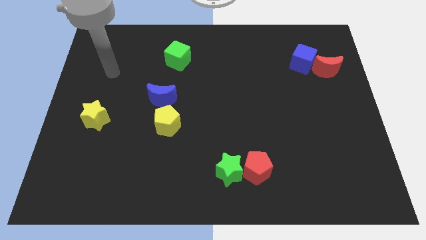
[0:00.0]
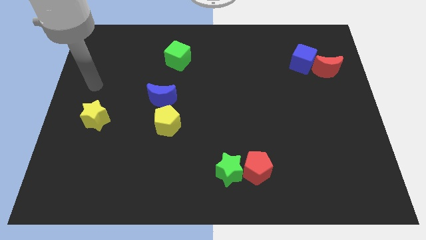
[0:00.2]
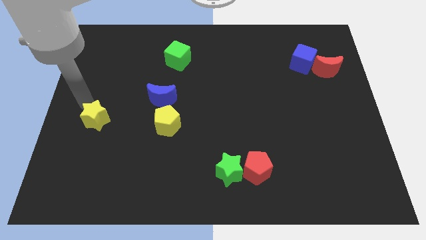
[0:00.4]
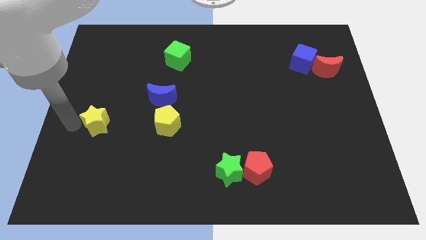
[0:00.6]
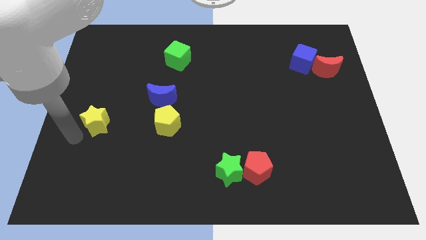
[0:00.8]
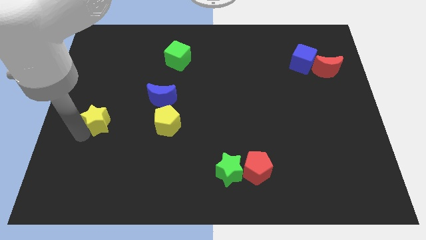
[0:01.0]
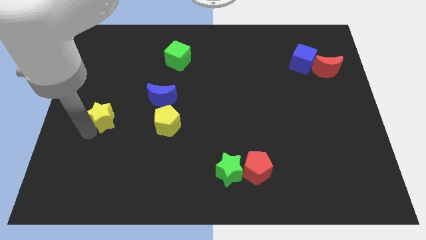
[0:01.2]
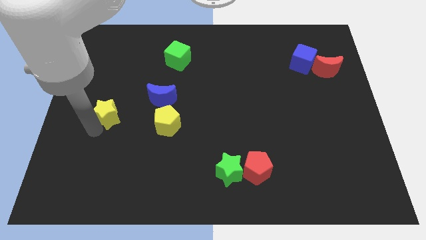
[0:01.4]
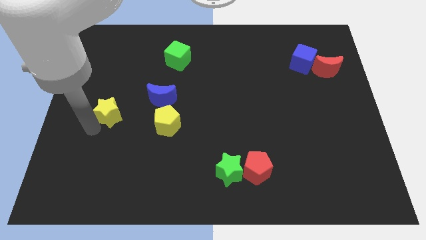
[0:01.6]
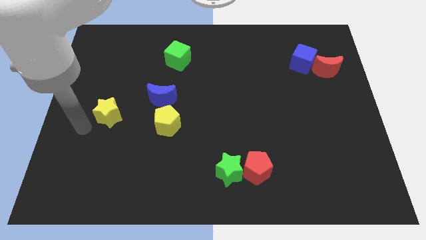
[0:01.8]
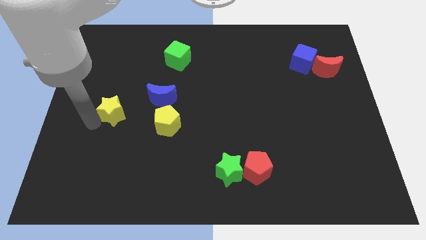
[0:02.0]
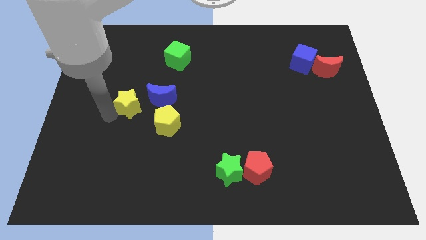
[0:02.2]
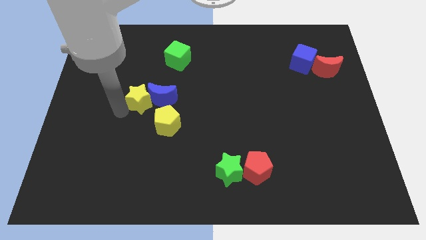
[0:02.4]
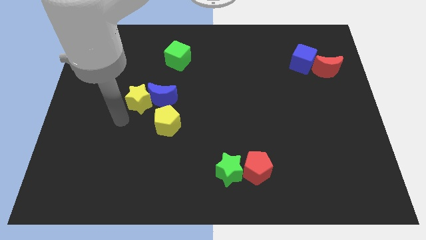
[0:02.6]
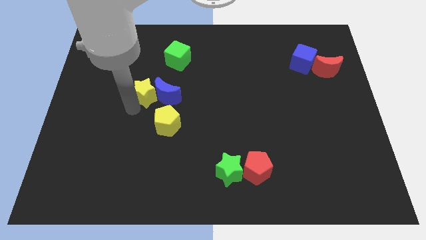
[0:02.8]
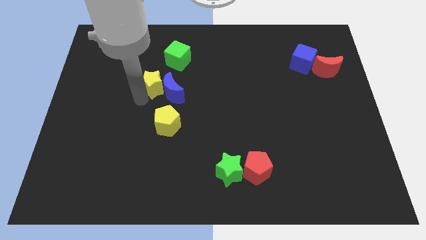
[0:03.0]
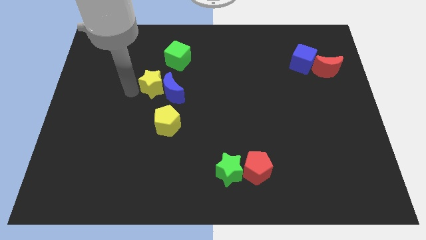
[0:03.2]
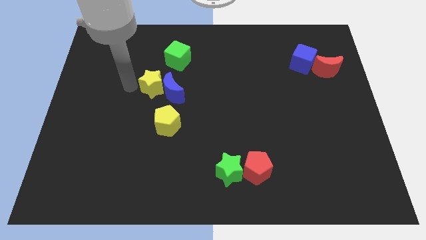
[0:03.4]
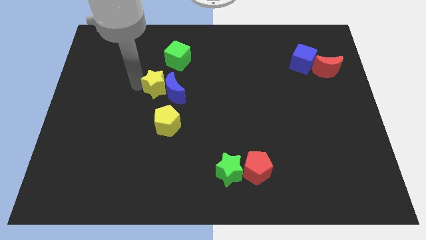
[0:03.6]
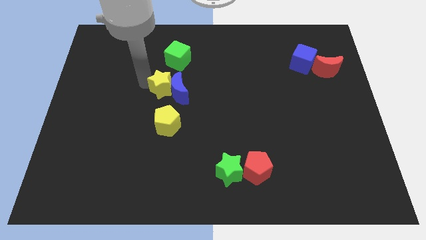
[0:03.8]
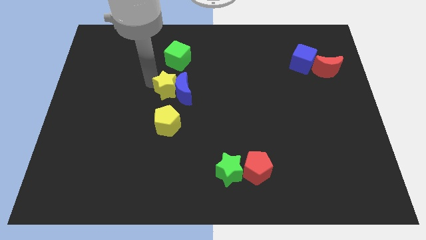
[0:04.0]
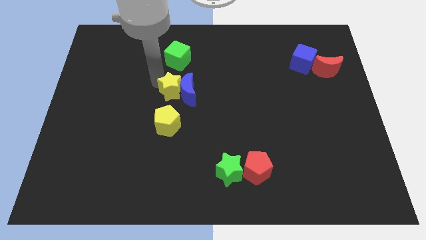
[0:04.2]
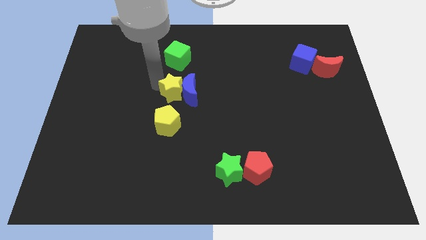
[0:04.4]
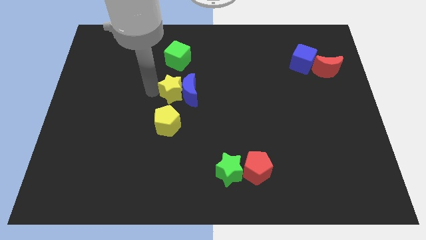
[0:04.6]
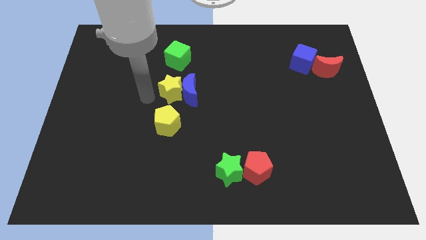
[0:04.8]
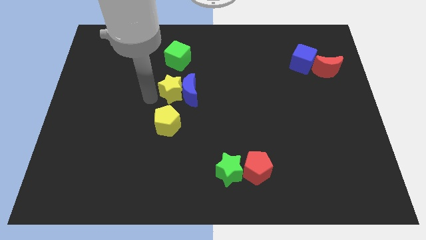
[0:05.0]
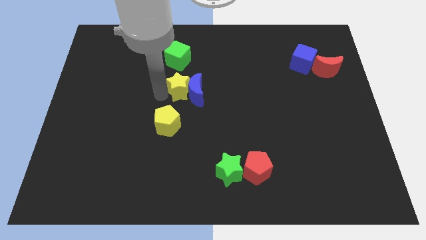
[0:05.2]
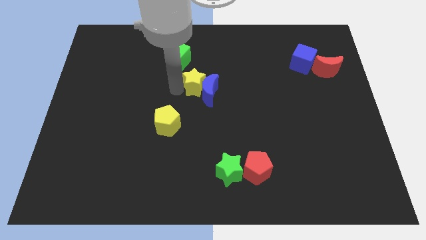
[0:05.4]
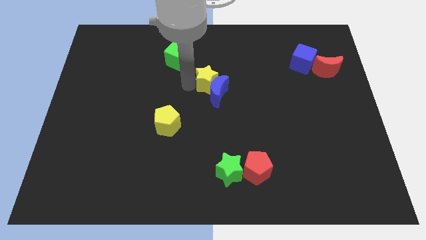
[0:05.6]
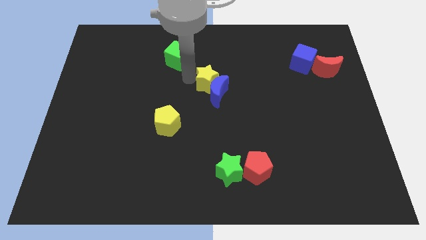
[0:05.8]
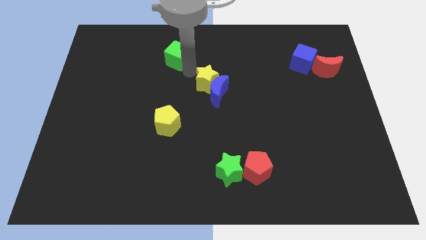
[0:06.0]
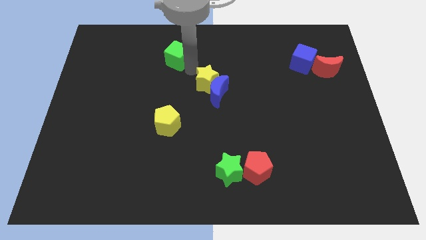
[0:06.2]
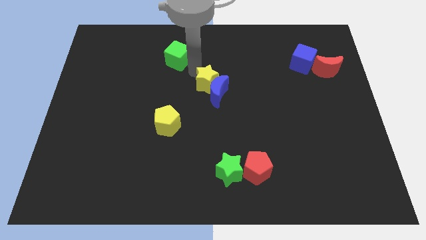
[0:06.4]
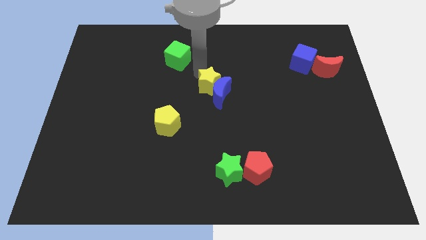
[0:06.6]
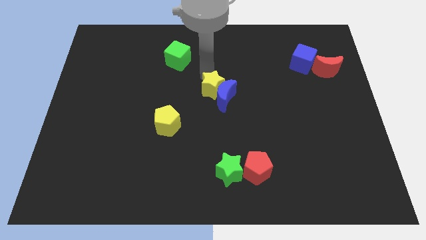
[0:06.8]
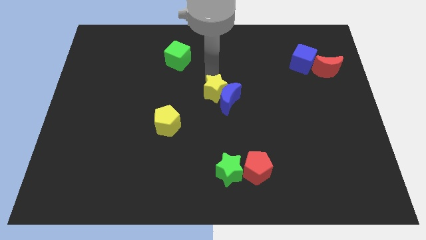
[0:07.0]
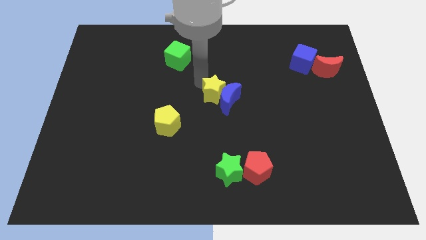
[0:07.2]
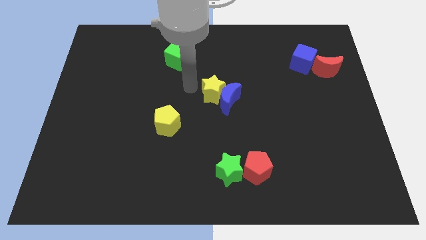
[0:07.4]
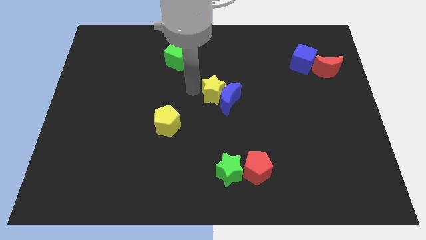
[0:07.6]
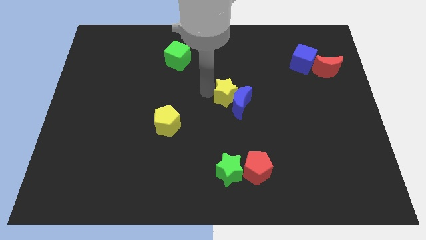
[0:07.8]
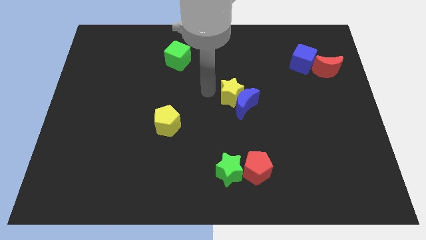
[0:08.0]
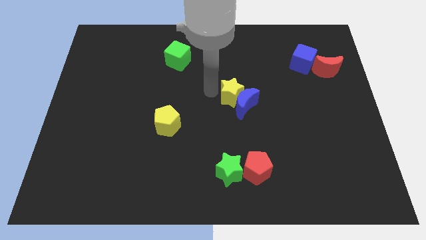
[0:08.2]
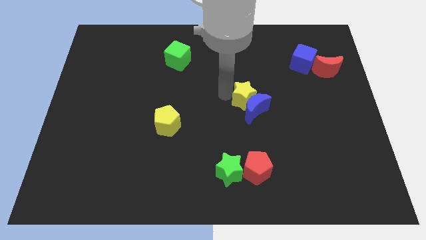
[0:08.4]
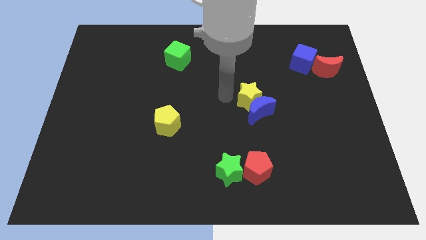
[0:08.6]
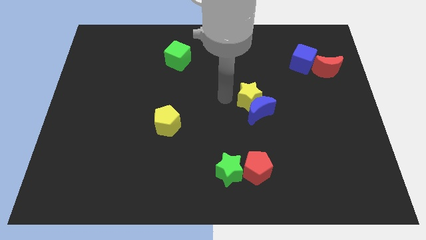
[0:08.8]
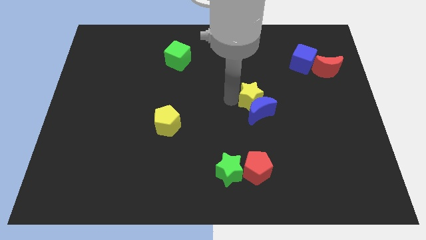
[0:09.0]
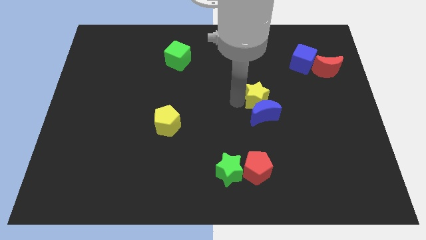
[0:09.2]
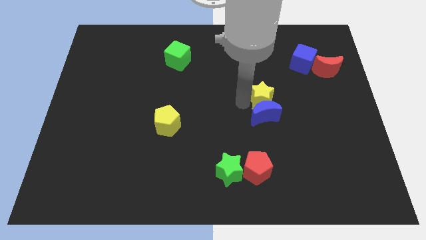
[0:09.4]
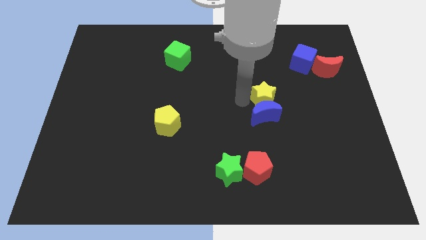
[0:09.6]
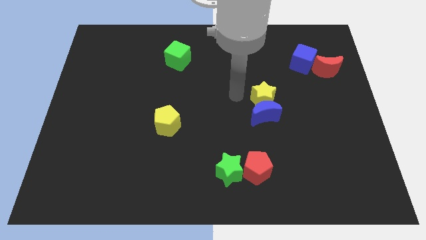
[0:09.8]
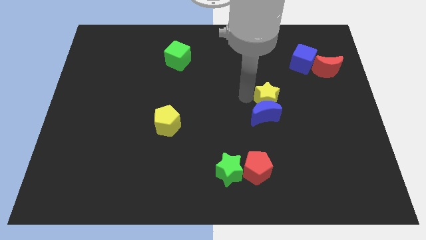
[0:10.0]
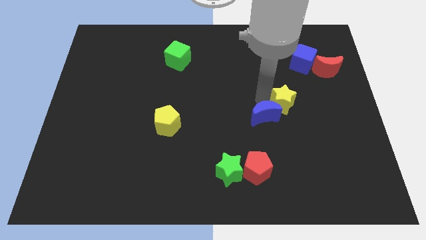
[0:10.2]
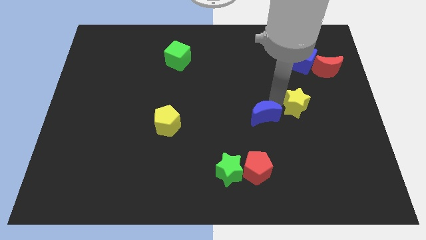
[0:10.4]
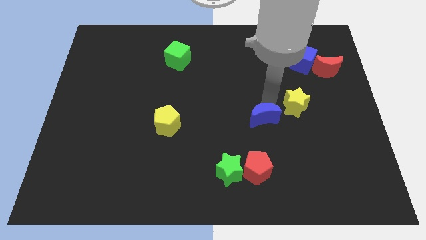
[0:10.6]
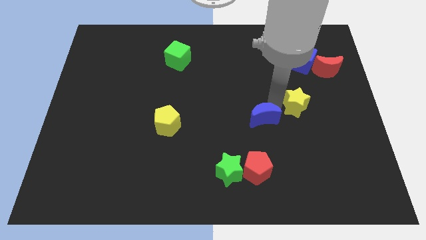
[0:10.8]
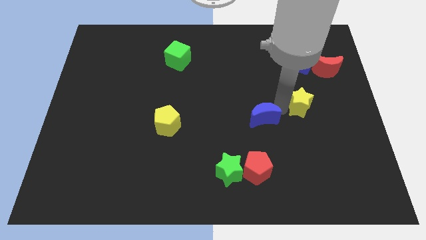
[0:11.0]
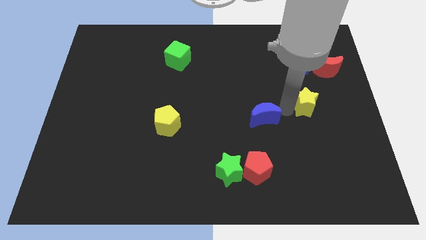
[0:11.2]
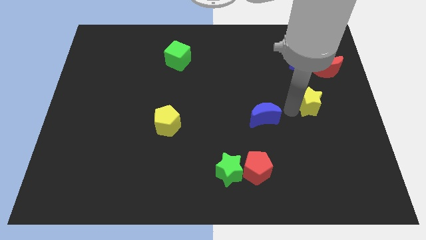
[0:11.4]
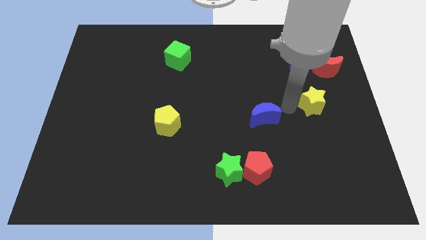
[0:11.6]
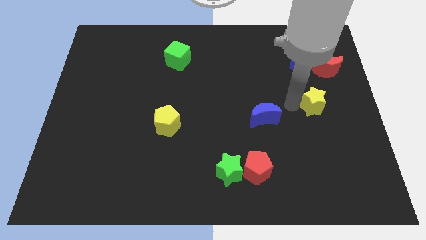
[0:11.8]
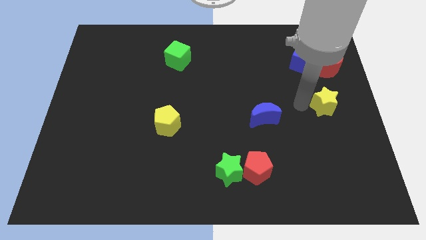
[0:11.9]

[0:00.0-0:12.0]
push the yellow star to the center right

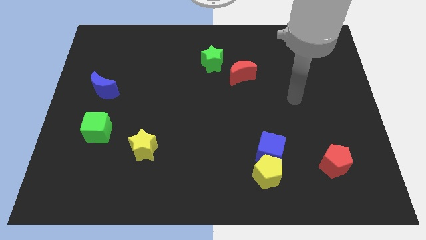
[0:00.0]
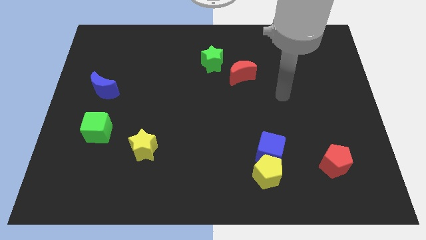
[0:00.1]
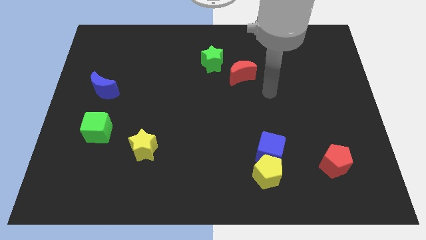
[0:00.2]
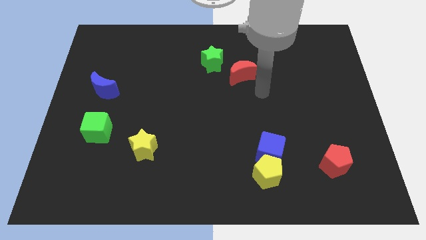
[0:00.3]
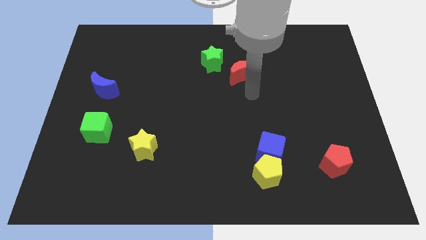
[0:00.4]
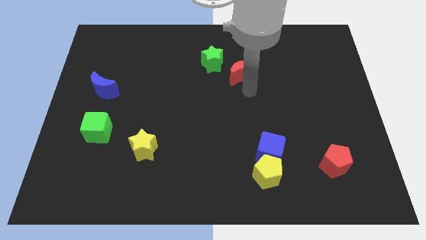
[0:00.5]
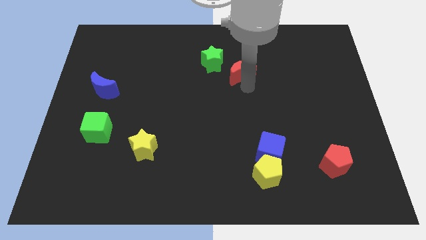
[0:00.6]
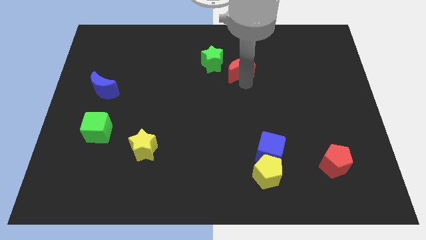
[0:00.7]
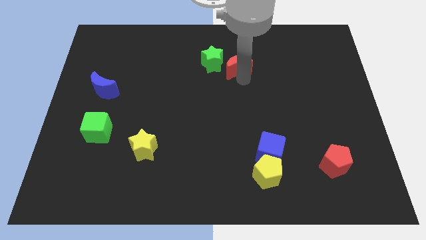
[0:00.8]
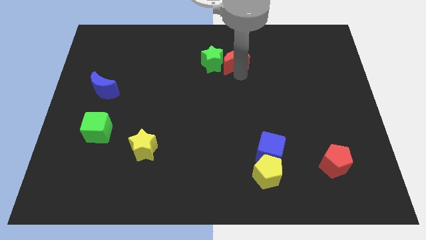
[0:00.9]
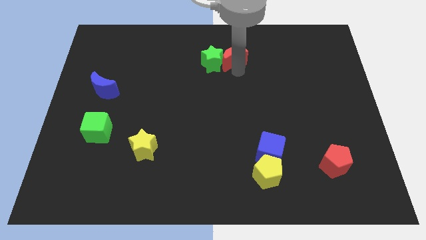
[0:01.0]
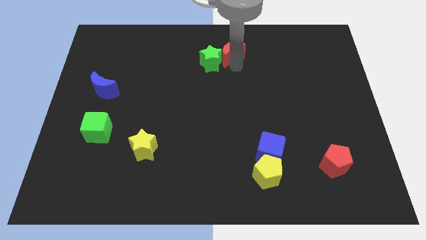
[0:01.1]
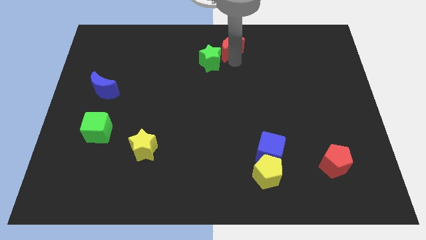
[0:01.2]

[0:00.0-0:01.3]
put the red moon to the top side
